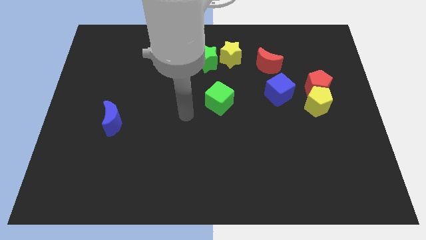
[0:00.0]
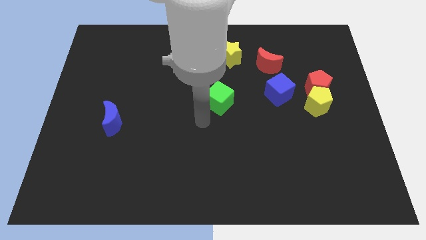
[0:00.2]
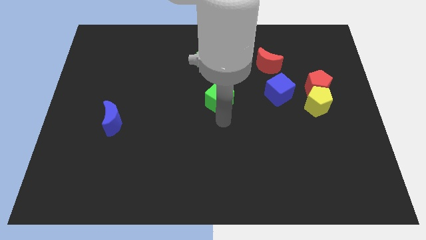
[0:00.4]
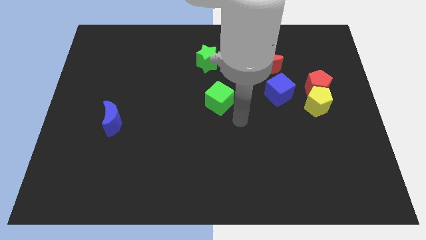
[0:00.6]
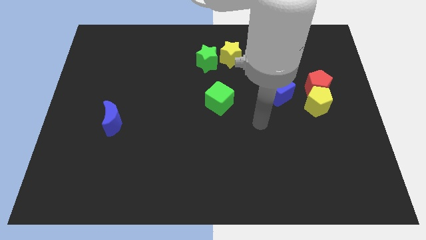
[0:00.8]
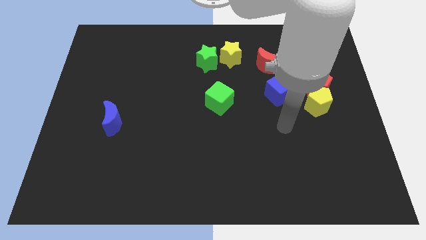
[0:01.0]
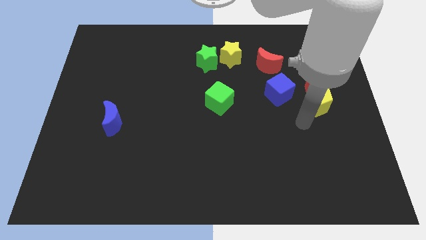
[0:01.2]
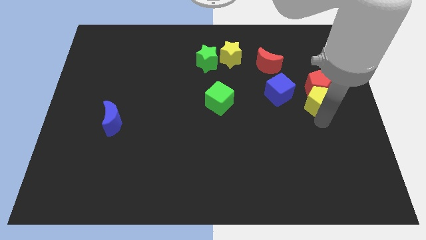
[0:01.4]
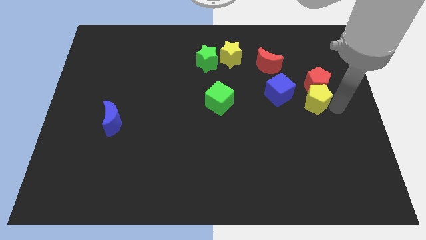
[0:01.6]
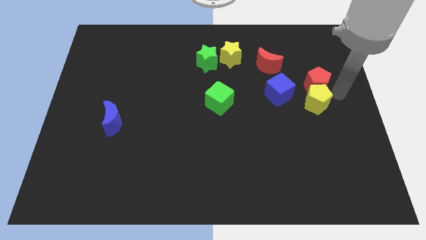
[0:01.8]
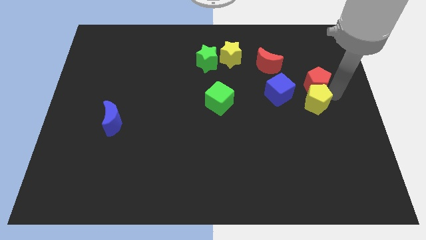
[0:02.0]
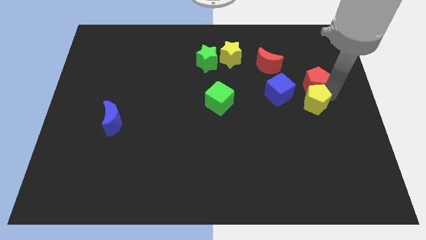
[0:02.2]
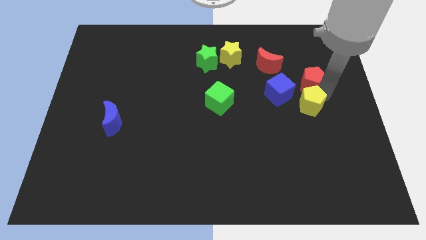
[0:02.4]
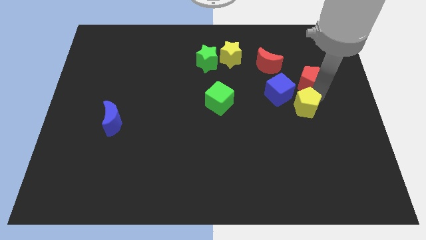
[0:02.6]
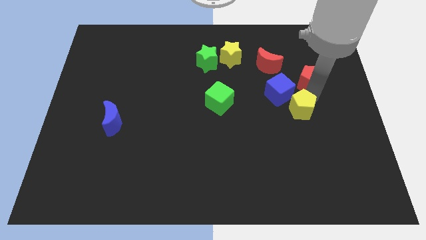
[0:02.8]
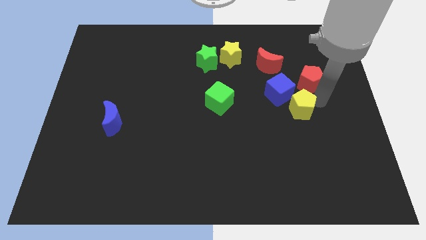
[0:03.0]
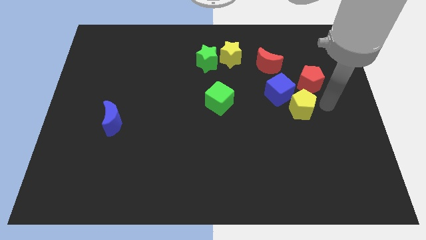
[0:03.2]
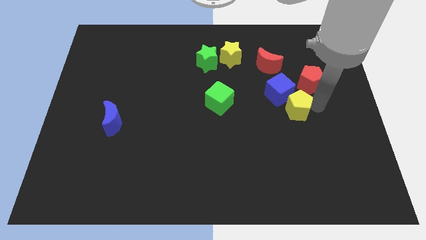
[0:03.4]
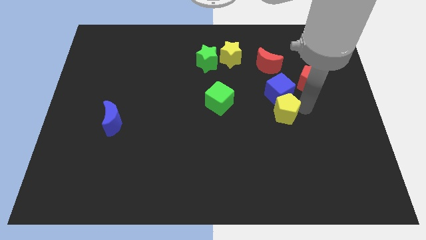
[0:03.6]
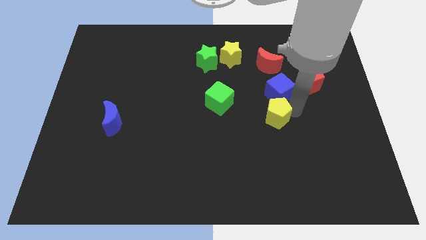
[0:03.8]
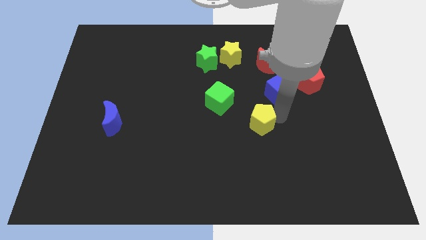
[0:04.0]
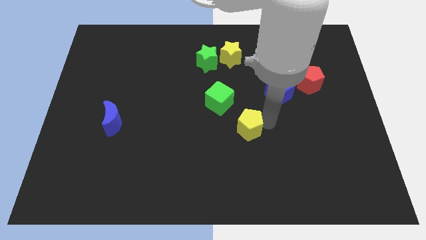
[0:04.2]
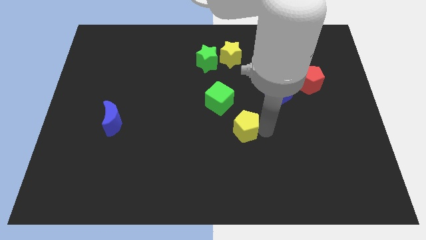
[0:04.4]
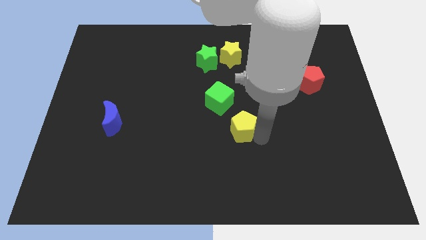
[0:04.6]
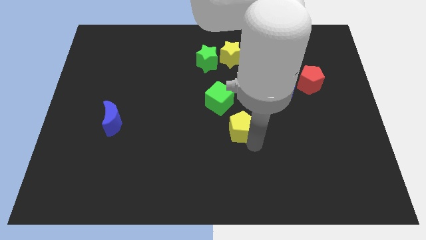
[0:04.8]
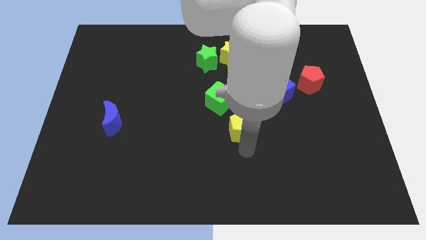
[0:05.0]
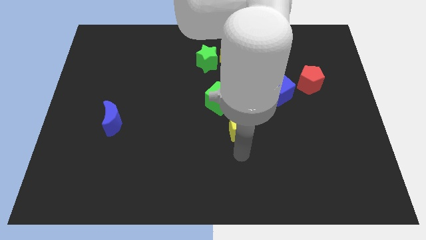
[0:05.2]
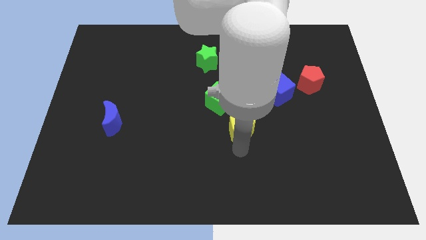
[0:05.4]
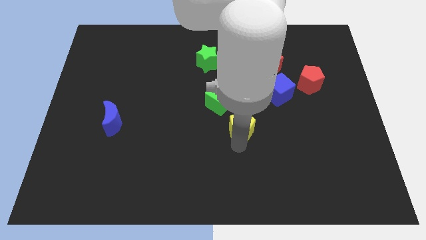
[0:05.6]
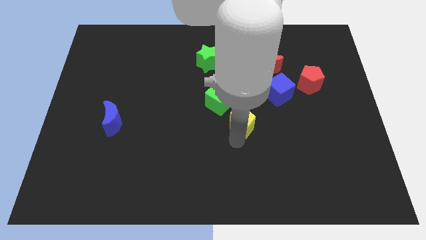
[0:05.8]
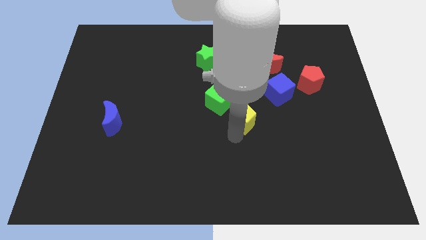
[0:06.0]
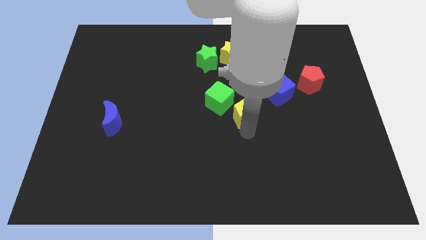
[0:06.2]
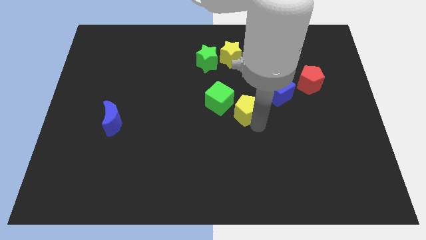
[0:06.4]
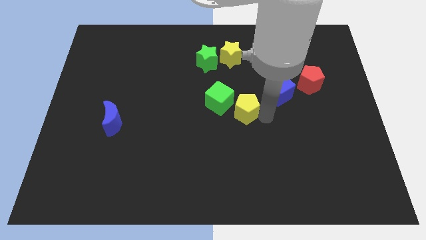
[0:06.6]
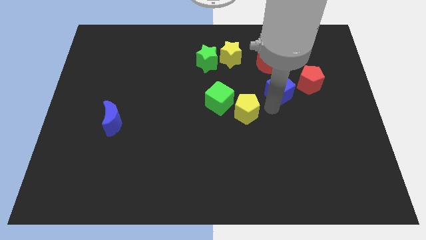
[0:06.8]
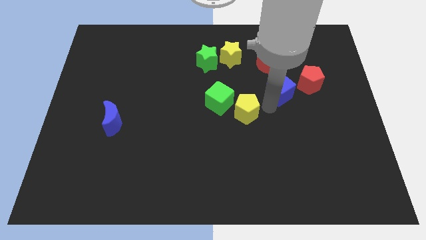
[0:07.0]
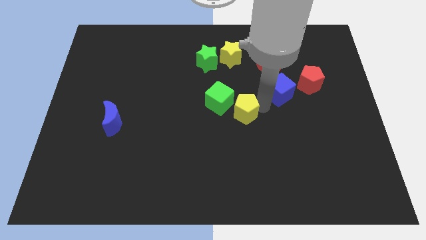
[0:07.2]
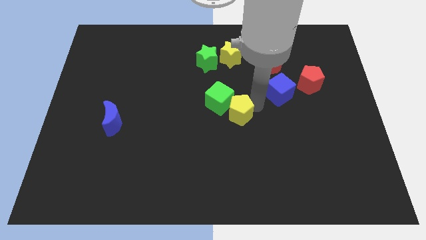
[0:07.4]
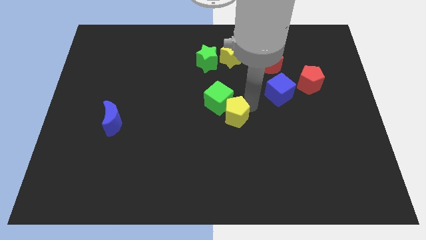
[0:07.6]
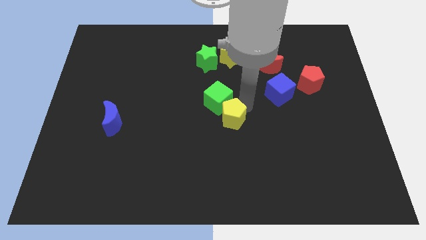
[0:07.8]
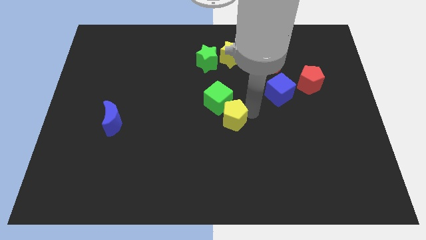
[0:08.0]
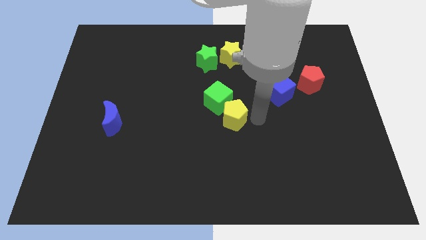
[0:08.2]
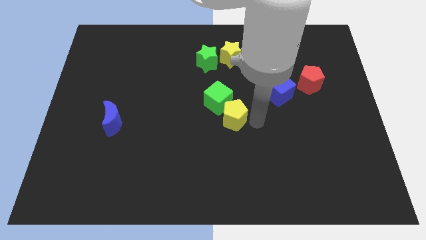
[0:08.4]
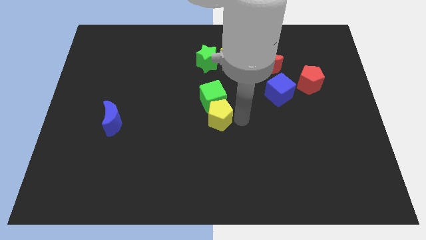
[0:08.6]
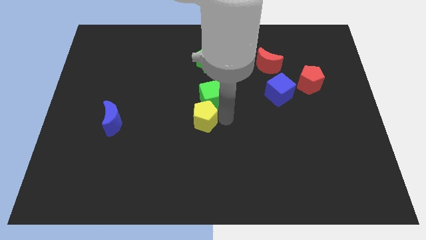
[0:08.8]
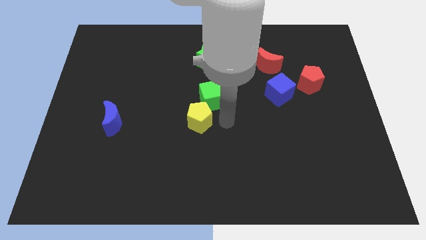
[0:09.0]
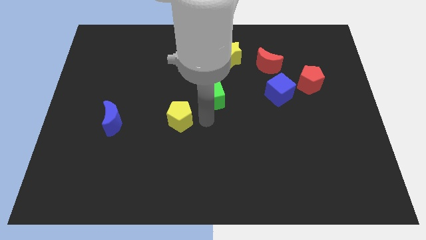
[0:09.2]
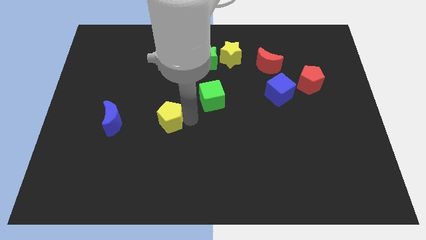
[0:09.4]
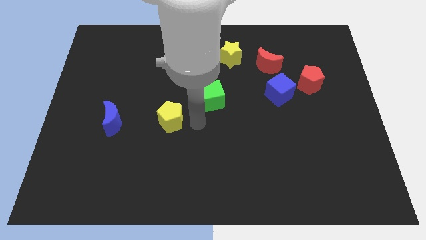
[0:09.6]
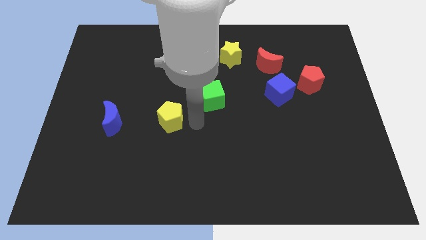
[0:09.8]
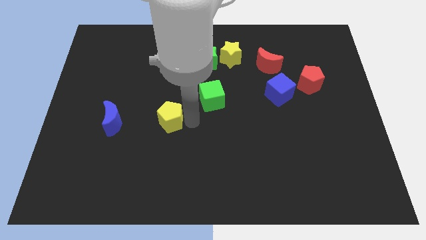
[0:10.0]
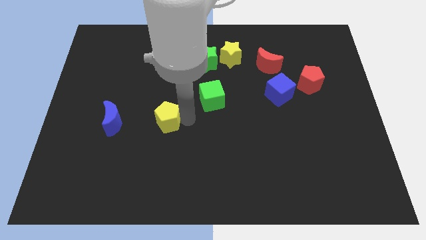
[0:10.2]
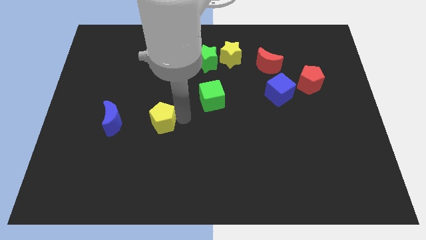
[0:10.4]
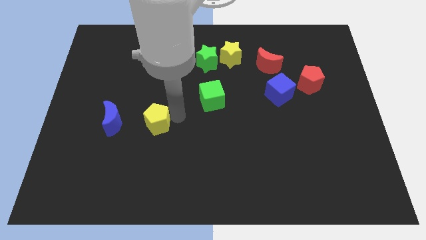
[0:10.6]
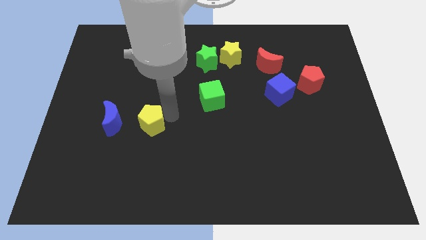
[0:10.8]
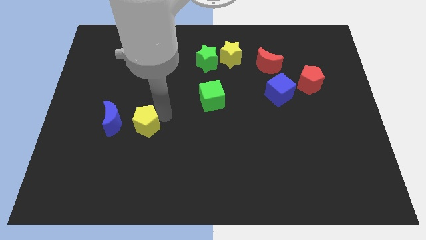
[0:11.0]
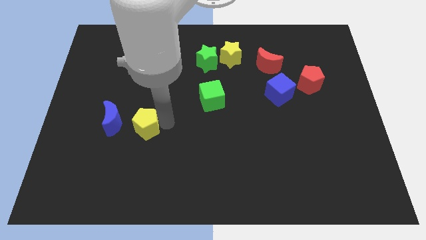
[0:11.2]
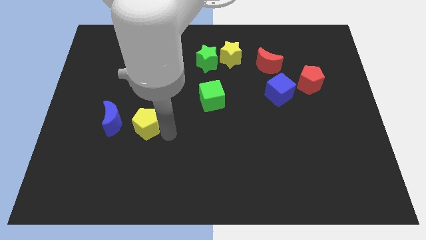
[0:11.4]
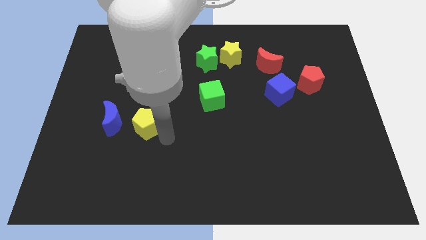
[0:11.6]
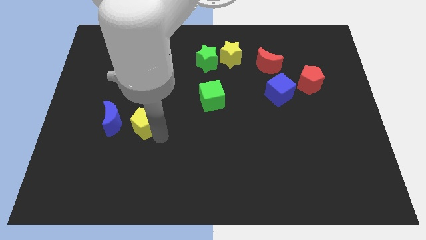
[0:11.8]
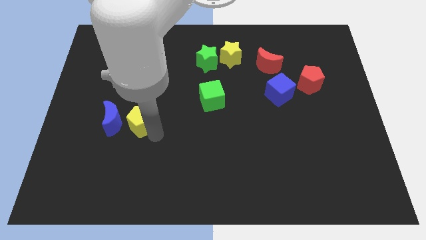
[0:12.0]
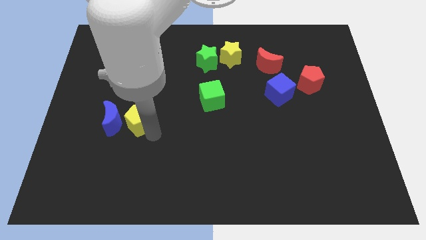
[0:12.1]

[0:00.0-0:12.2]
push the yellow pentagon next to the blue moon

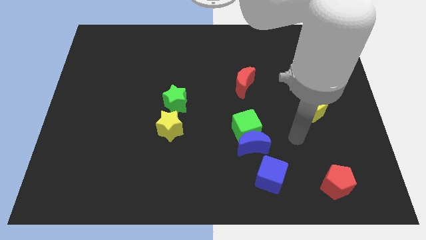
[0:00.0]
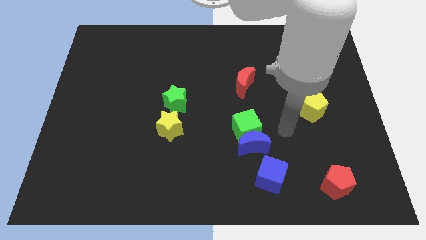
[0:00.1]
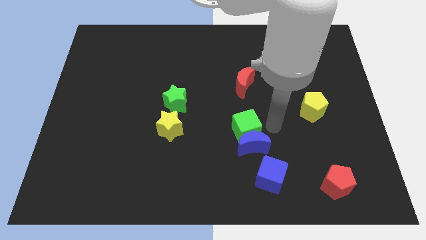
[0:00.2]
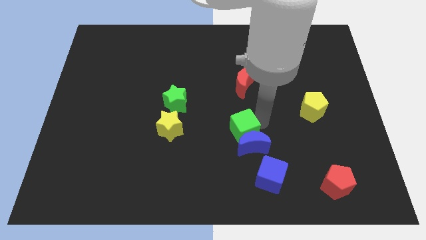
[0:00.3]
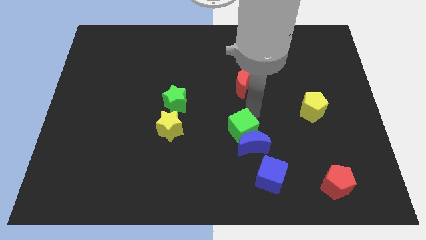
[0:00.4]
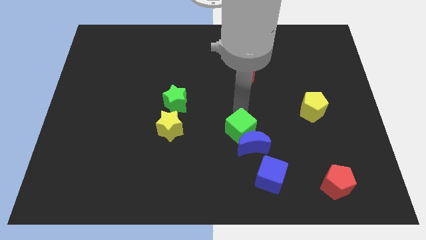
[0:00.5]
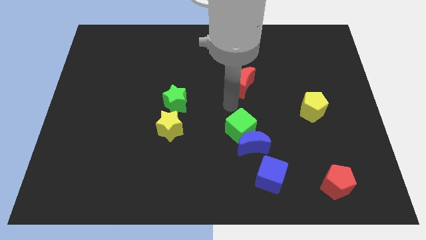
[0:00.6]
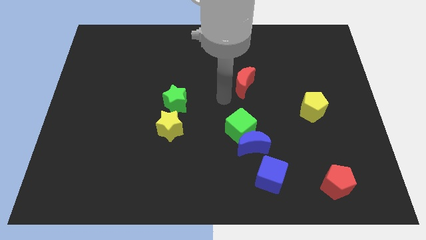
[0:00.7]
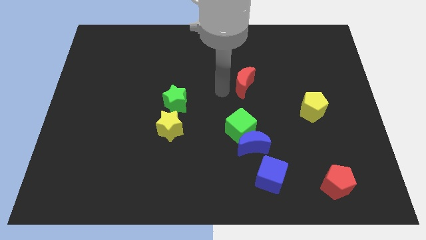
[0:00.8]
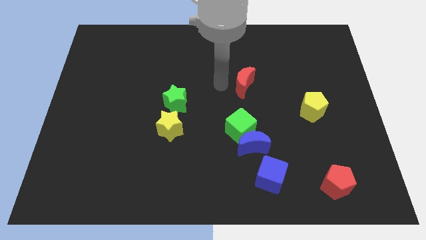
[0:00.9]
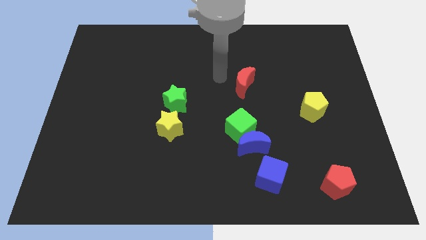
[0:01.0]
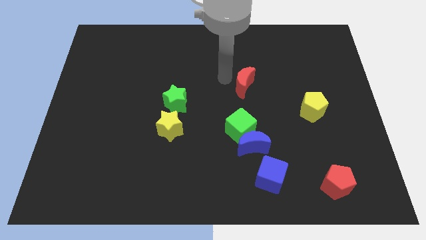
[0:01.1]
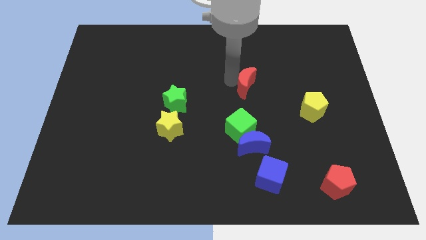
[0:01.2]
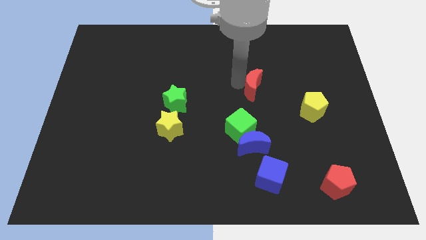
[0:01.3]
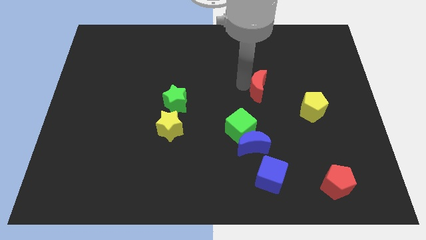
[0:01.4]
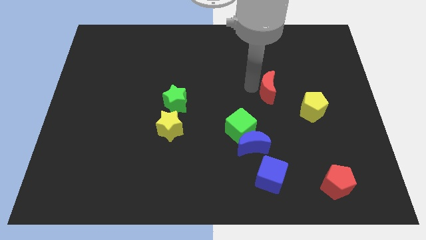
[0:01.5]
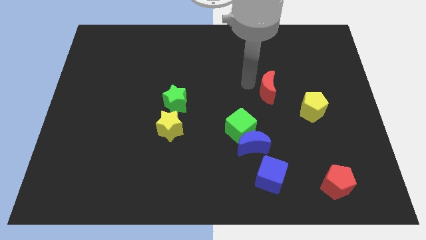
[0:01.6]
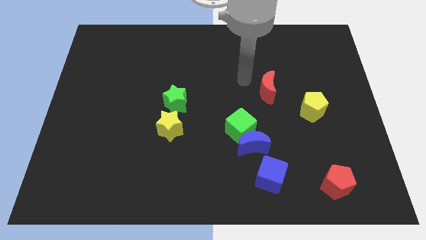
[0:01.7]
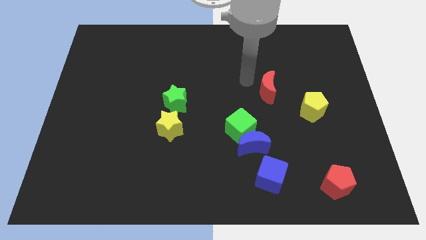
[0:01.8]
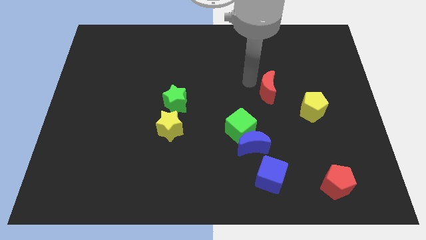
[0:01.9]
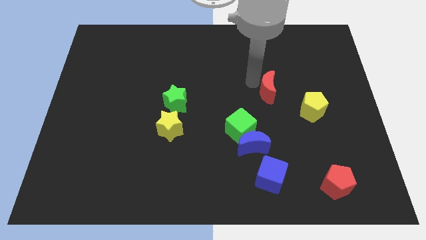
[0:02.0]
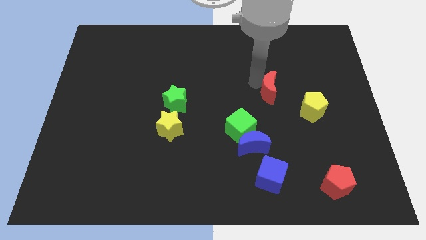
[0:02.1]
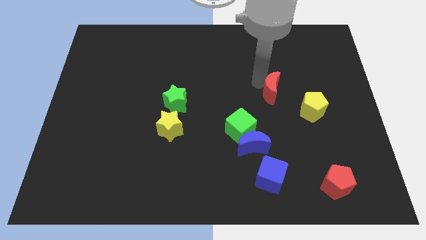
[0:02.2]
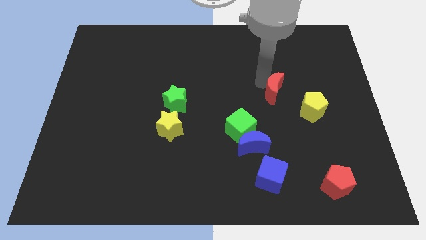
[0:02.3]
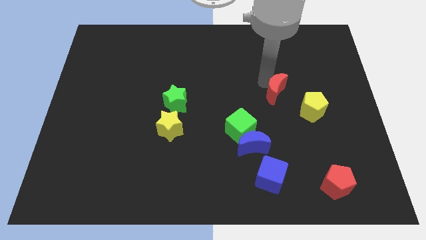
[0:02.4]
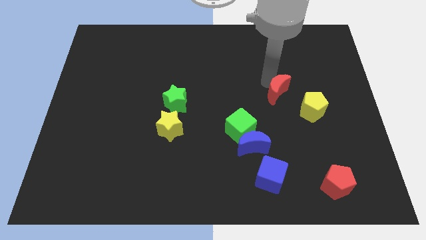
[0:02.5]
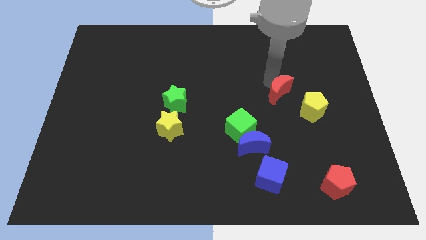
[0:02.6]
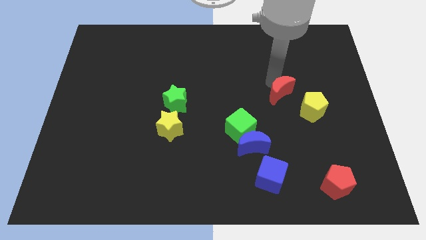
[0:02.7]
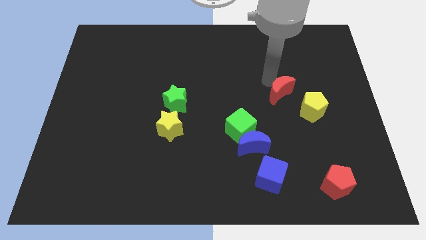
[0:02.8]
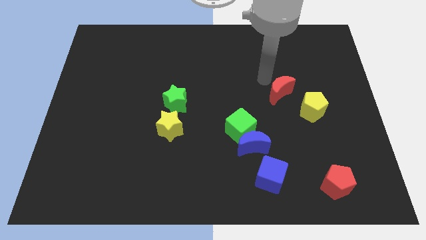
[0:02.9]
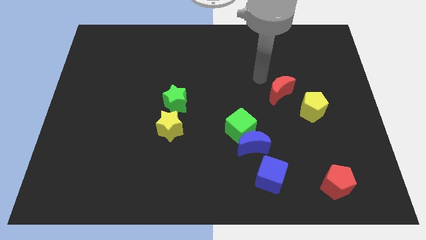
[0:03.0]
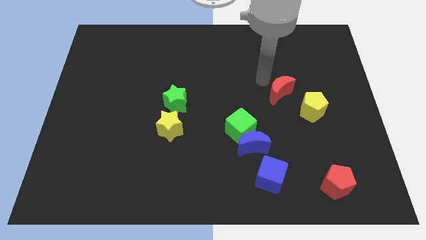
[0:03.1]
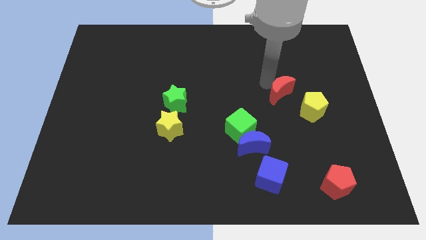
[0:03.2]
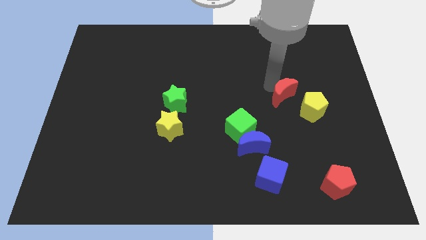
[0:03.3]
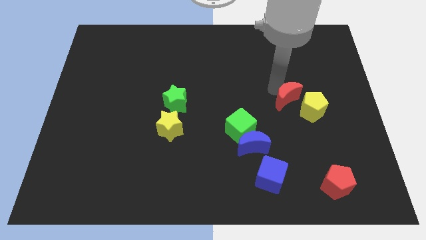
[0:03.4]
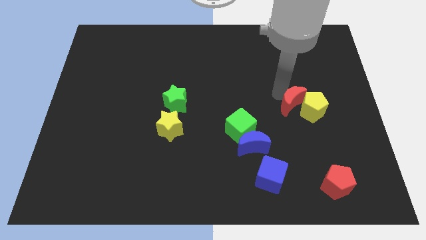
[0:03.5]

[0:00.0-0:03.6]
slide the red moon close to the yellow pentagon
